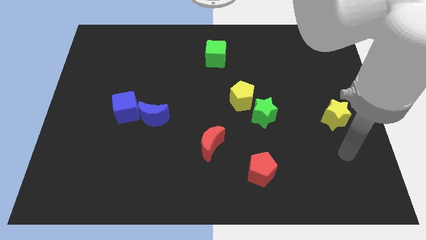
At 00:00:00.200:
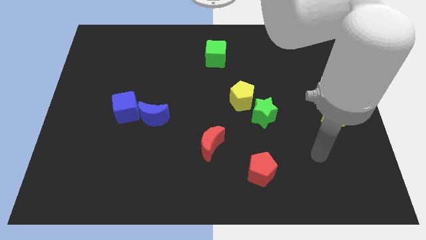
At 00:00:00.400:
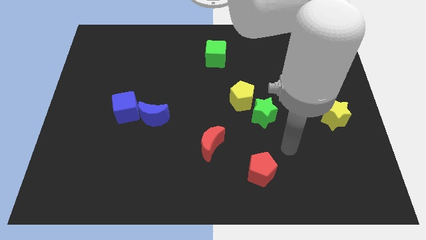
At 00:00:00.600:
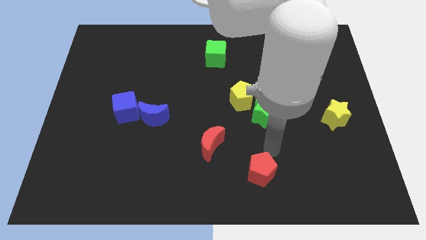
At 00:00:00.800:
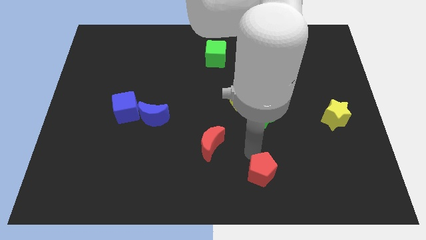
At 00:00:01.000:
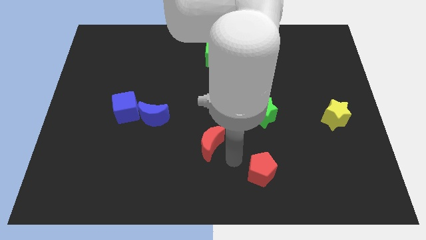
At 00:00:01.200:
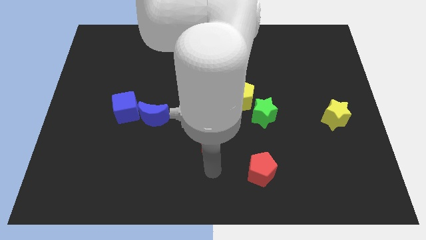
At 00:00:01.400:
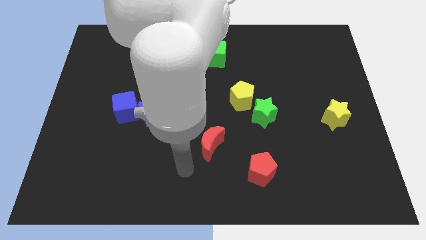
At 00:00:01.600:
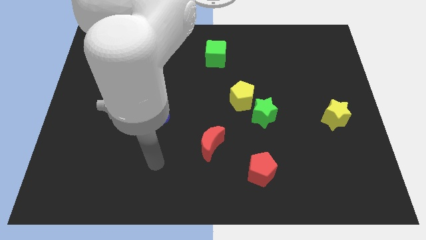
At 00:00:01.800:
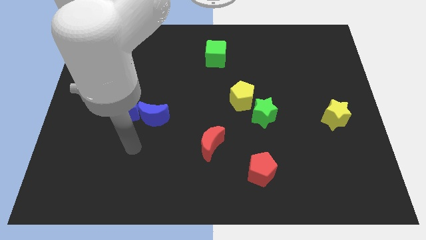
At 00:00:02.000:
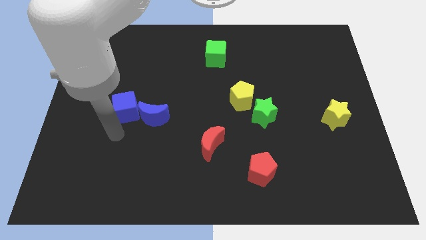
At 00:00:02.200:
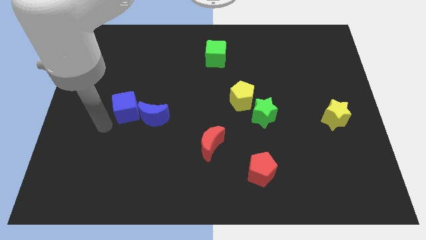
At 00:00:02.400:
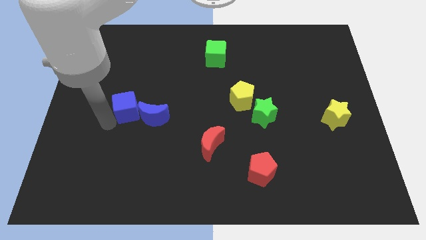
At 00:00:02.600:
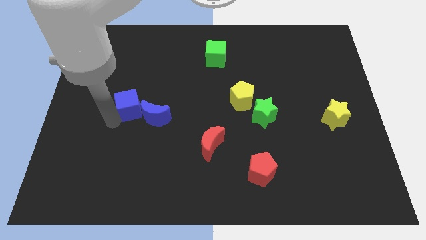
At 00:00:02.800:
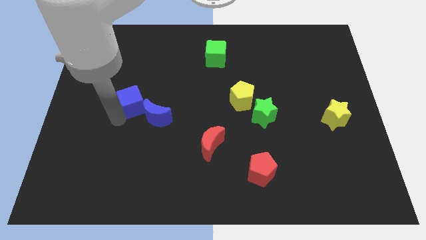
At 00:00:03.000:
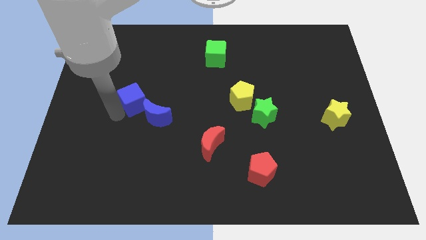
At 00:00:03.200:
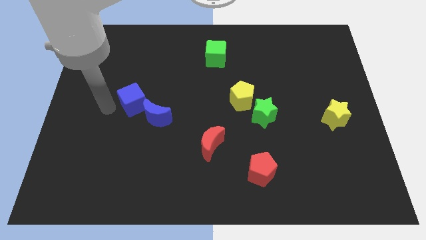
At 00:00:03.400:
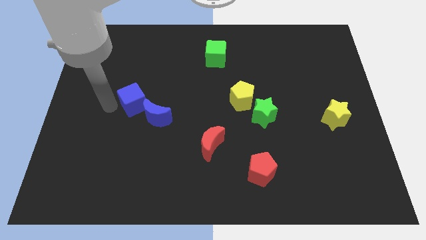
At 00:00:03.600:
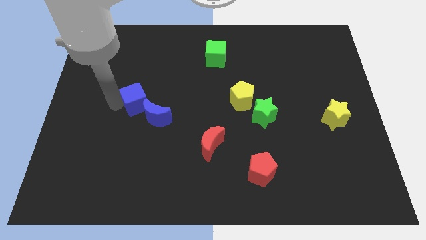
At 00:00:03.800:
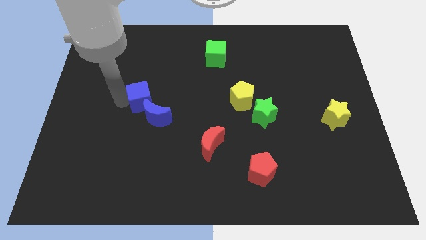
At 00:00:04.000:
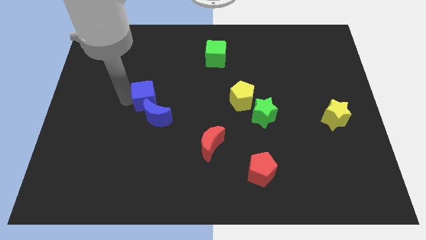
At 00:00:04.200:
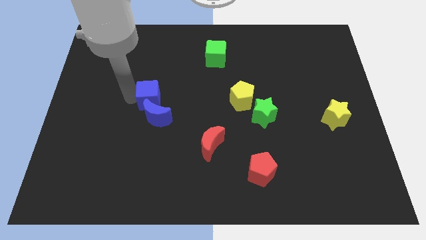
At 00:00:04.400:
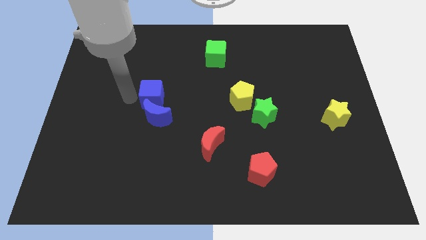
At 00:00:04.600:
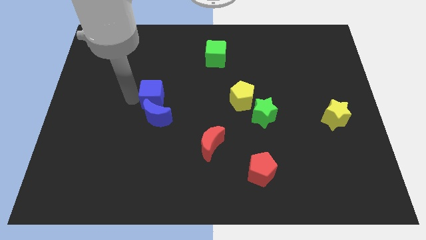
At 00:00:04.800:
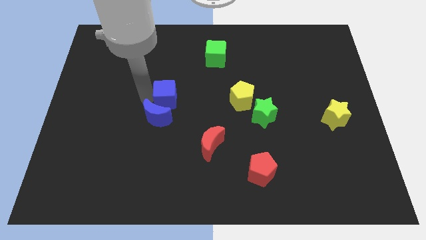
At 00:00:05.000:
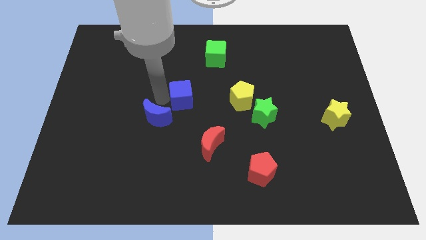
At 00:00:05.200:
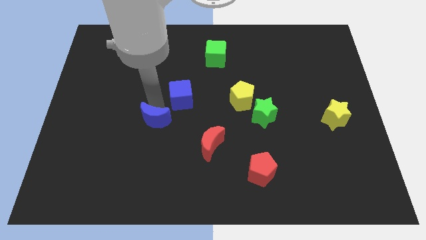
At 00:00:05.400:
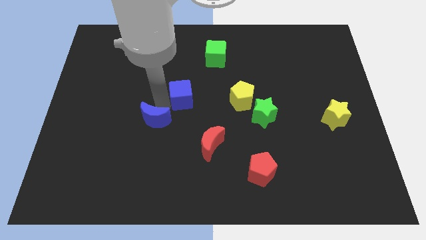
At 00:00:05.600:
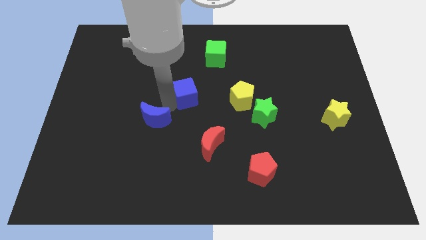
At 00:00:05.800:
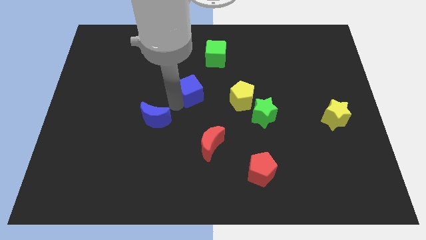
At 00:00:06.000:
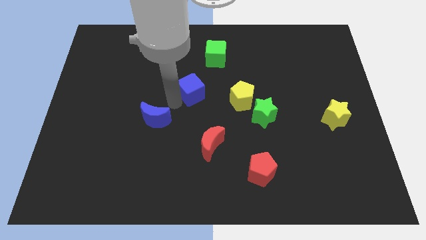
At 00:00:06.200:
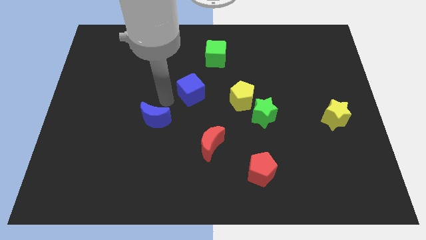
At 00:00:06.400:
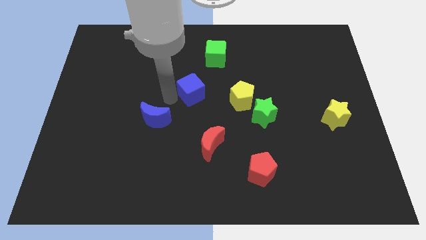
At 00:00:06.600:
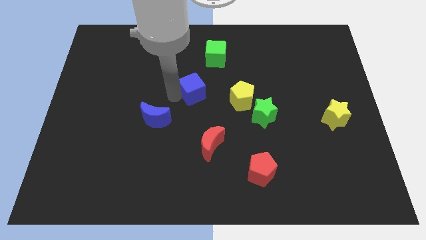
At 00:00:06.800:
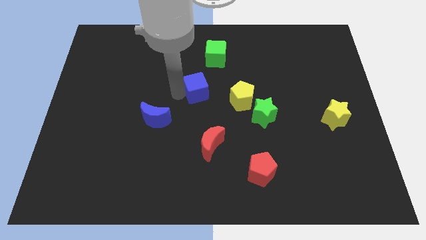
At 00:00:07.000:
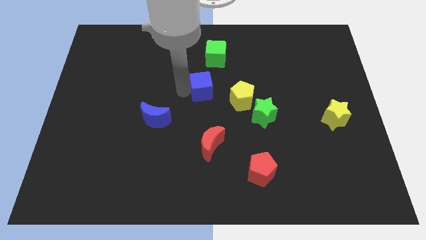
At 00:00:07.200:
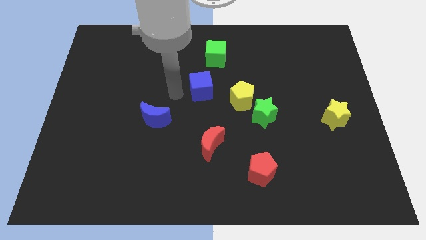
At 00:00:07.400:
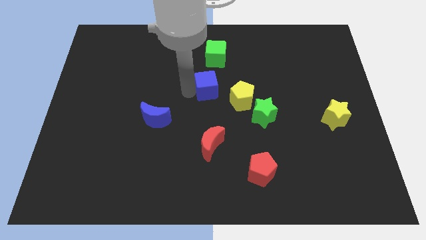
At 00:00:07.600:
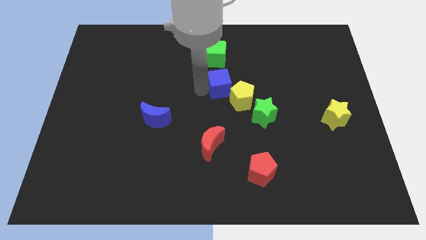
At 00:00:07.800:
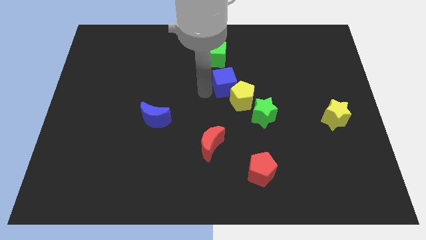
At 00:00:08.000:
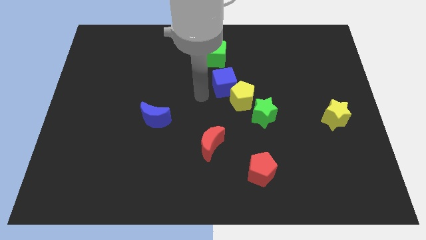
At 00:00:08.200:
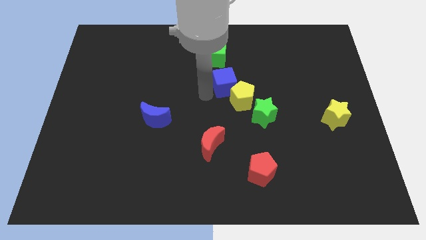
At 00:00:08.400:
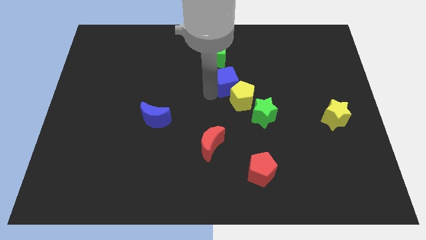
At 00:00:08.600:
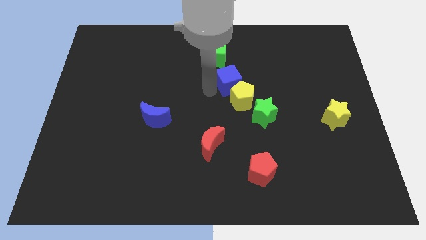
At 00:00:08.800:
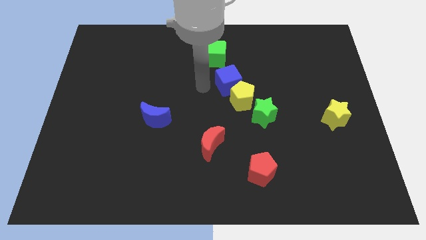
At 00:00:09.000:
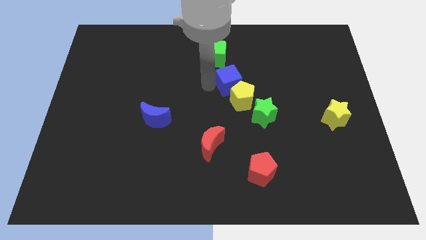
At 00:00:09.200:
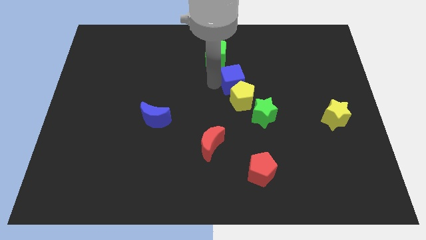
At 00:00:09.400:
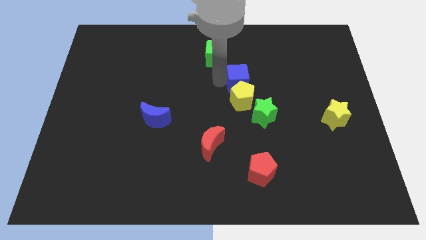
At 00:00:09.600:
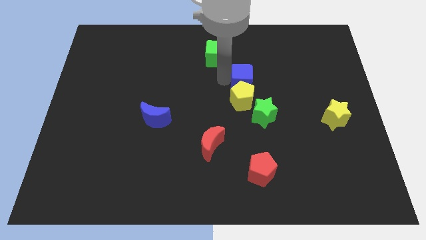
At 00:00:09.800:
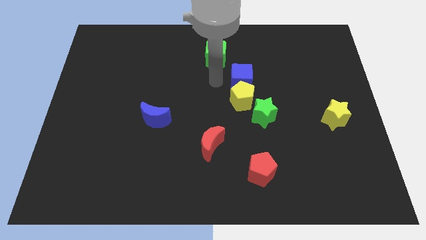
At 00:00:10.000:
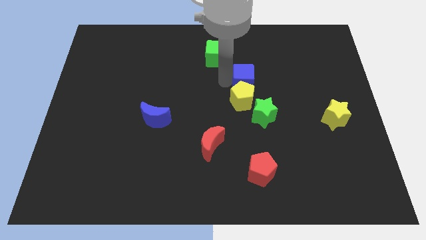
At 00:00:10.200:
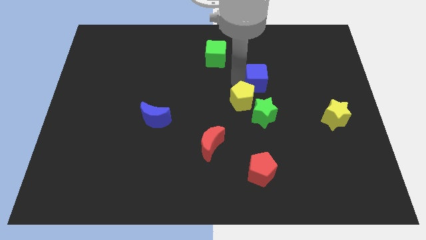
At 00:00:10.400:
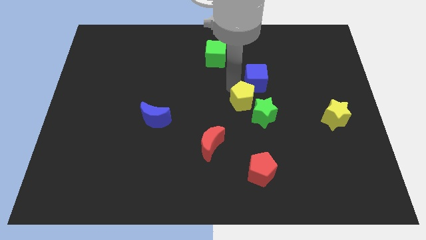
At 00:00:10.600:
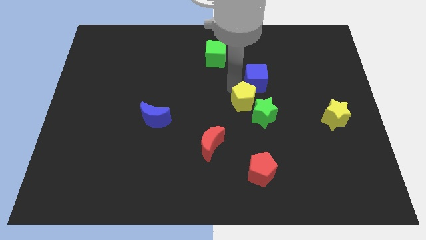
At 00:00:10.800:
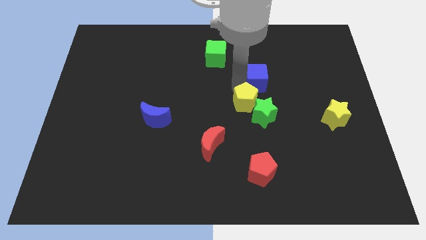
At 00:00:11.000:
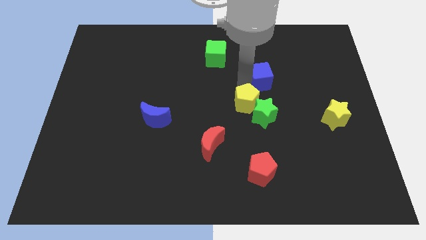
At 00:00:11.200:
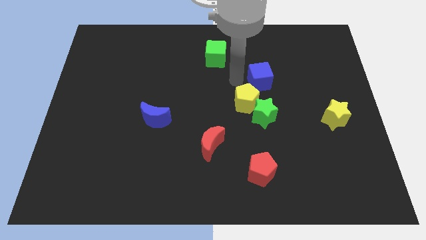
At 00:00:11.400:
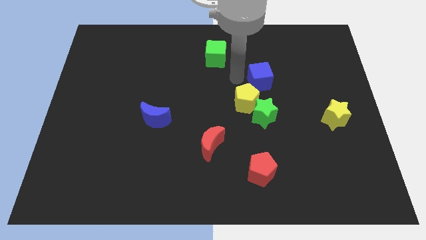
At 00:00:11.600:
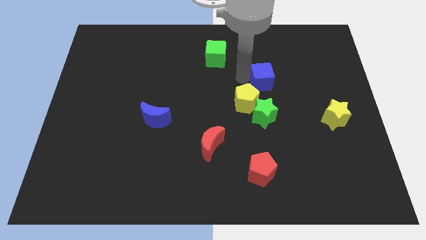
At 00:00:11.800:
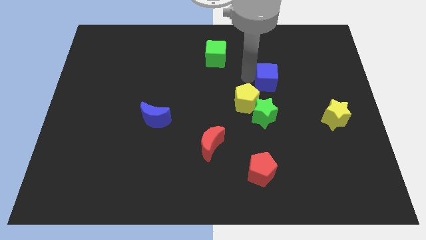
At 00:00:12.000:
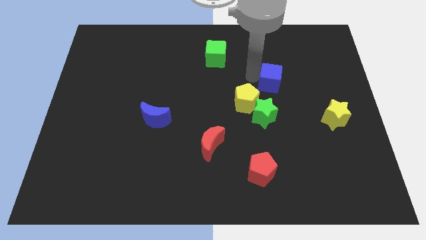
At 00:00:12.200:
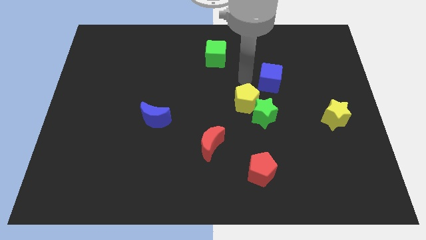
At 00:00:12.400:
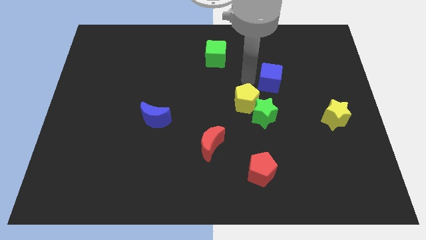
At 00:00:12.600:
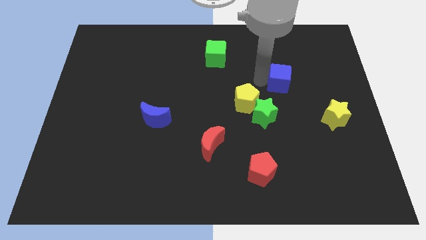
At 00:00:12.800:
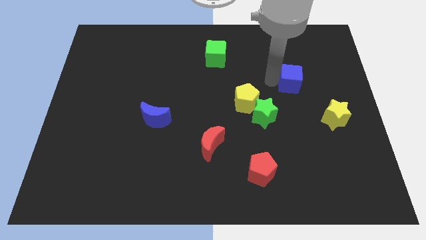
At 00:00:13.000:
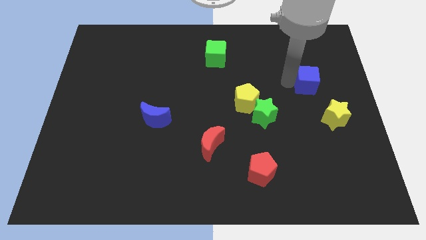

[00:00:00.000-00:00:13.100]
put the blue cube above the yellow star

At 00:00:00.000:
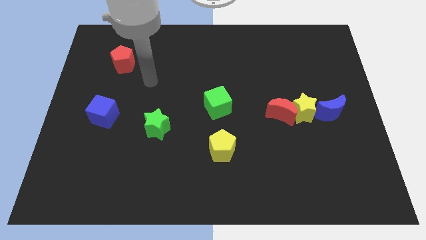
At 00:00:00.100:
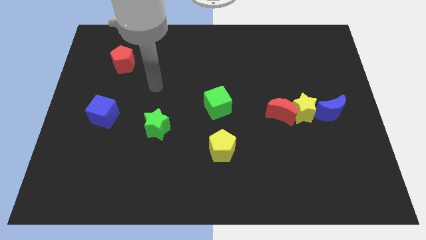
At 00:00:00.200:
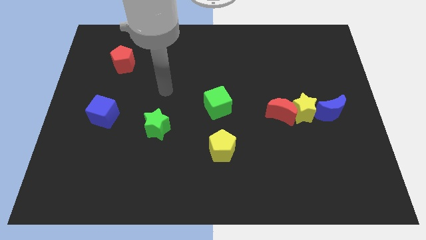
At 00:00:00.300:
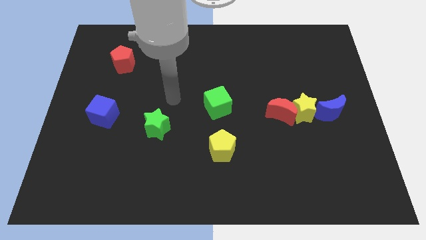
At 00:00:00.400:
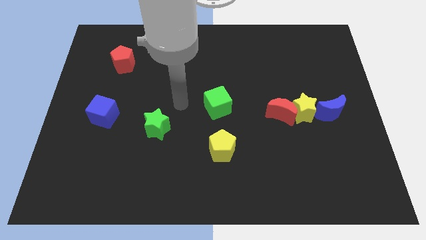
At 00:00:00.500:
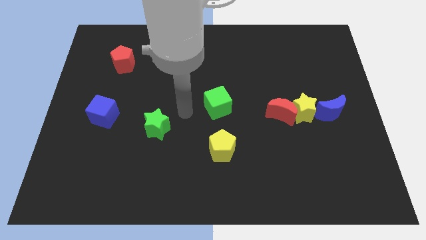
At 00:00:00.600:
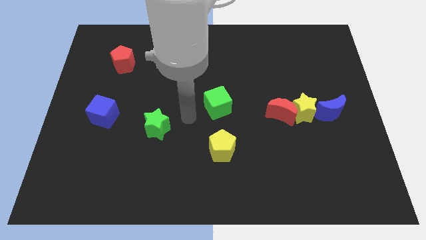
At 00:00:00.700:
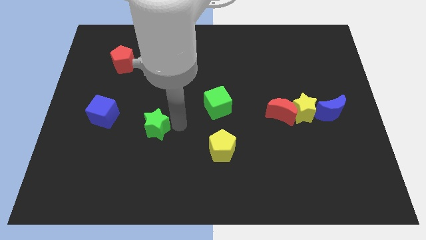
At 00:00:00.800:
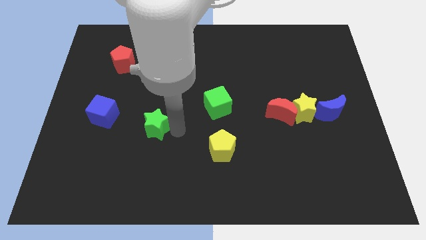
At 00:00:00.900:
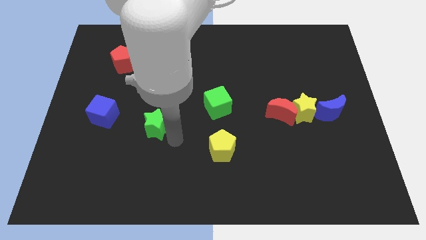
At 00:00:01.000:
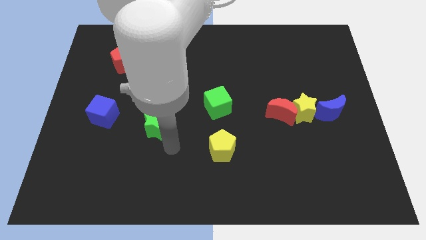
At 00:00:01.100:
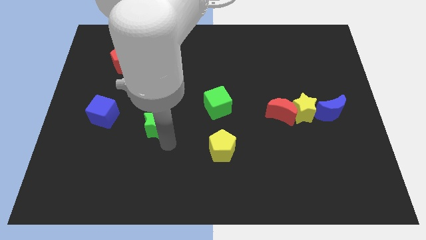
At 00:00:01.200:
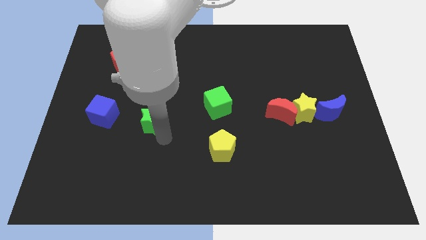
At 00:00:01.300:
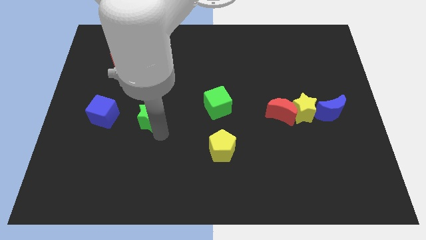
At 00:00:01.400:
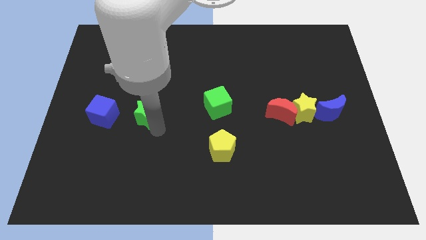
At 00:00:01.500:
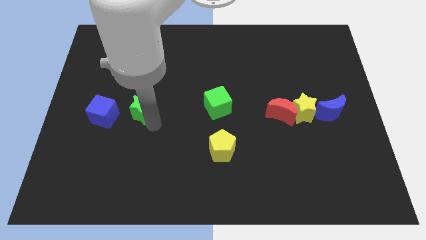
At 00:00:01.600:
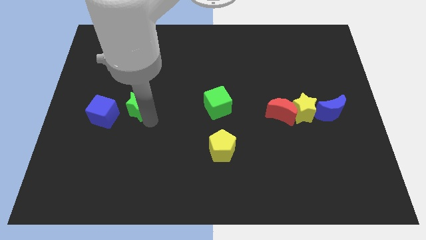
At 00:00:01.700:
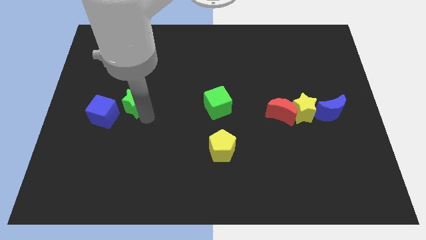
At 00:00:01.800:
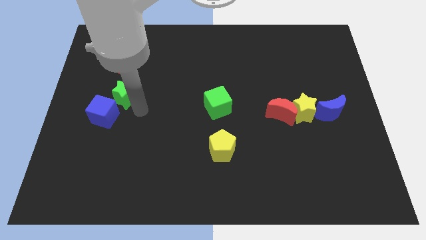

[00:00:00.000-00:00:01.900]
put the green star to the top side of the blue cube
